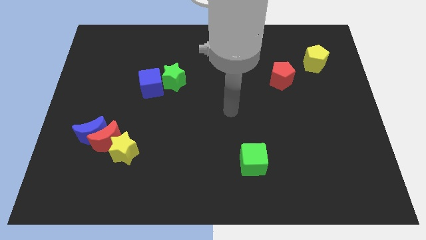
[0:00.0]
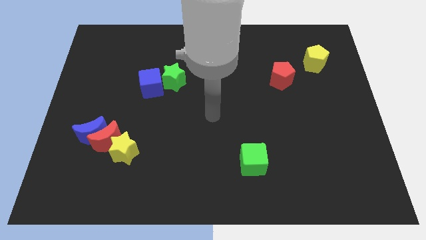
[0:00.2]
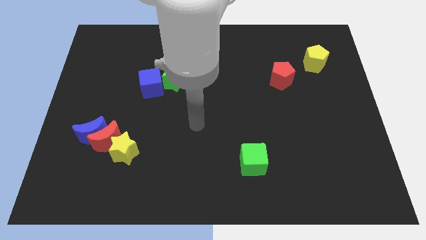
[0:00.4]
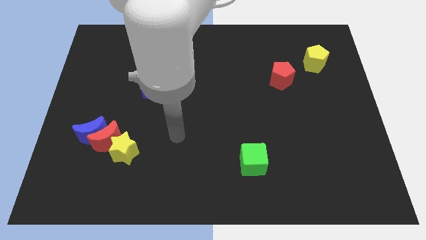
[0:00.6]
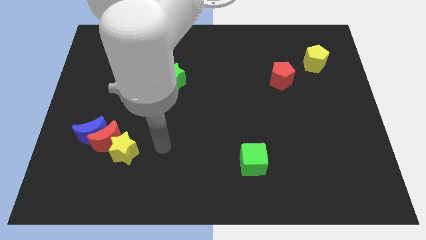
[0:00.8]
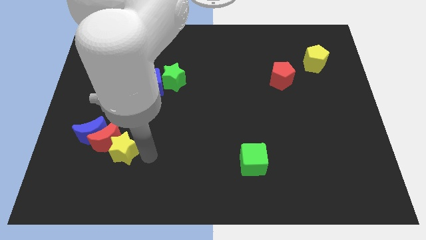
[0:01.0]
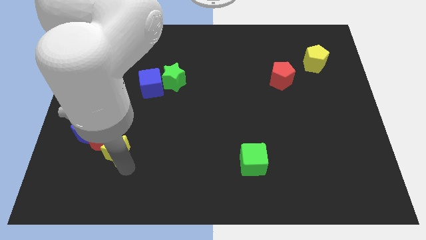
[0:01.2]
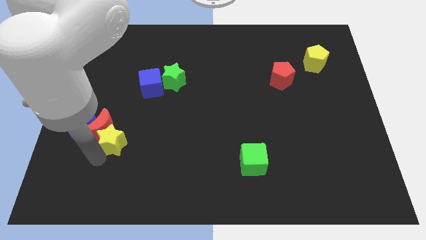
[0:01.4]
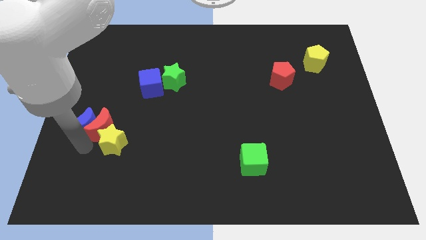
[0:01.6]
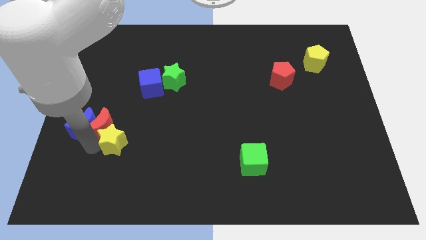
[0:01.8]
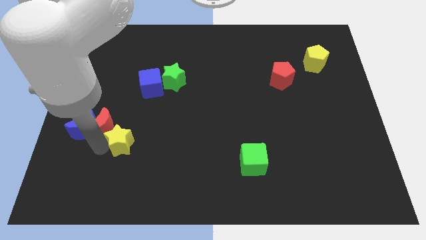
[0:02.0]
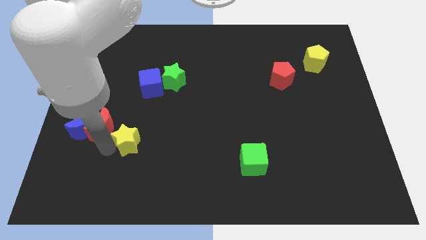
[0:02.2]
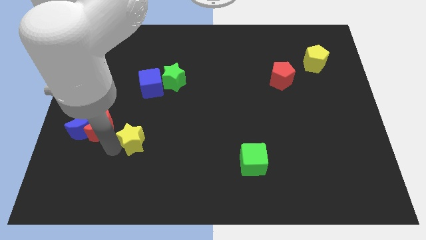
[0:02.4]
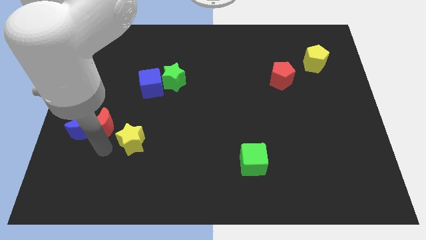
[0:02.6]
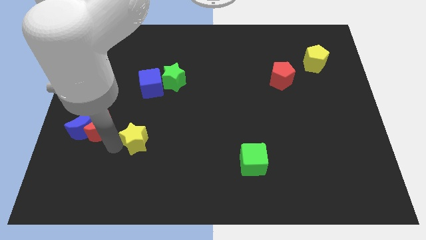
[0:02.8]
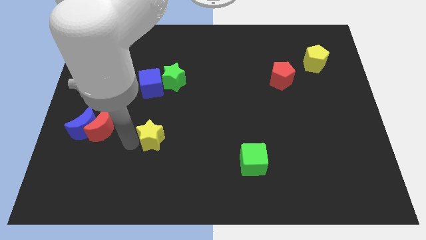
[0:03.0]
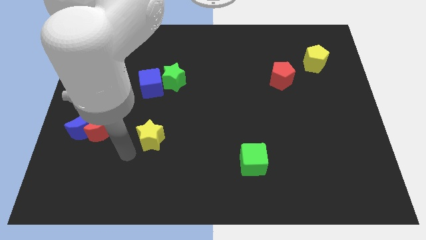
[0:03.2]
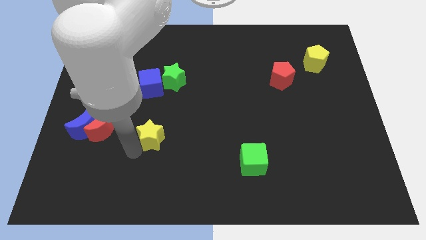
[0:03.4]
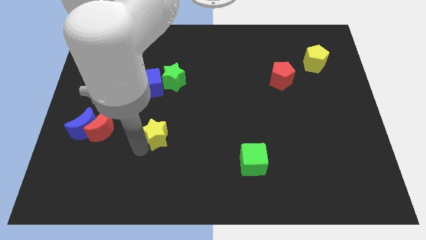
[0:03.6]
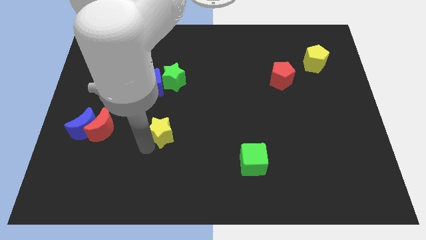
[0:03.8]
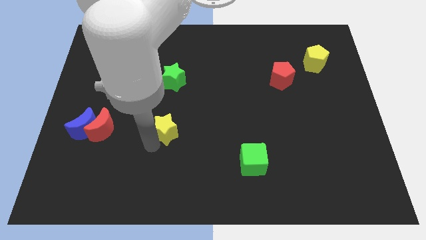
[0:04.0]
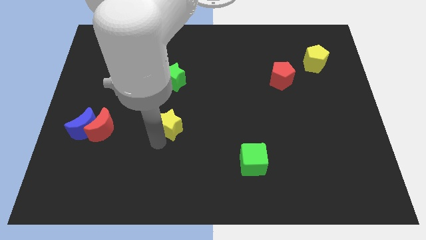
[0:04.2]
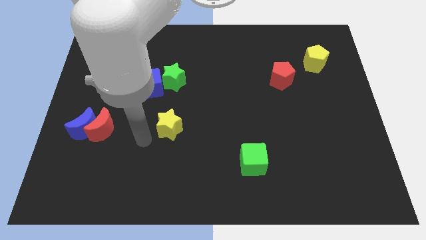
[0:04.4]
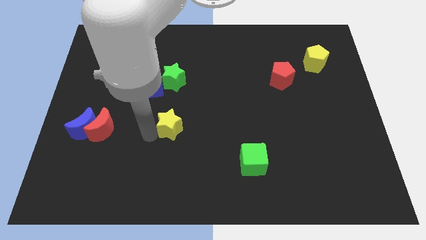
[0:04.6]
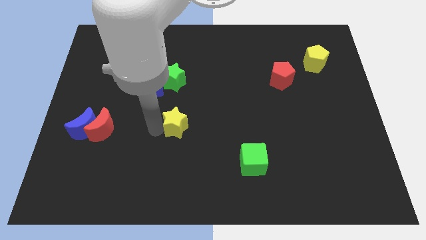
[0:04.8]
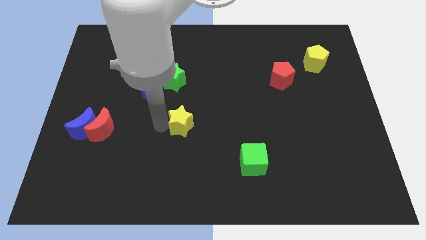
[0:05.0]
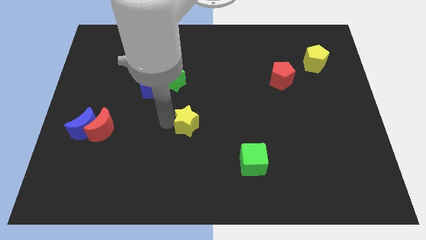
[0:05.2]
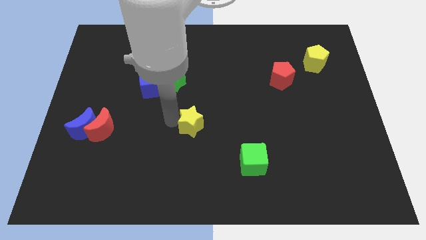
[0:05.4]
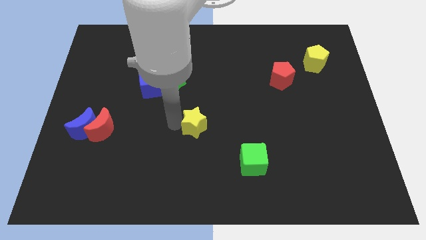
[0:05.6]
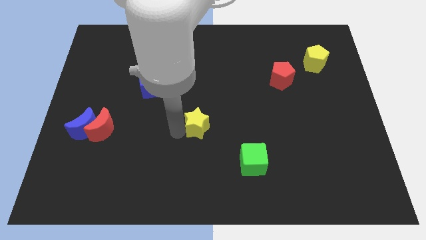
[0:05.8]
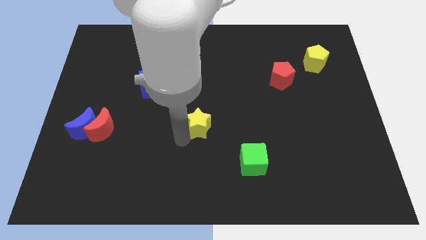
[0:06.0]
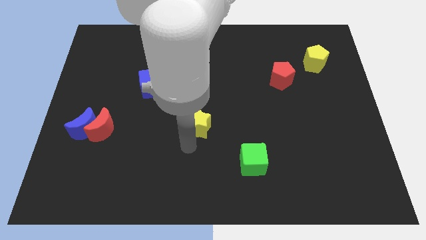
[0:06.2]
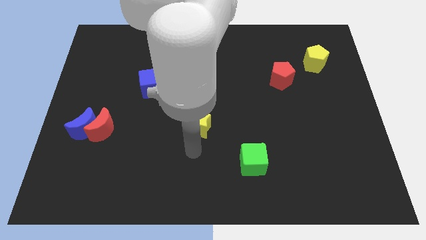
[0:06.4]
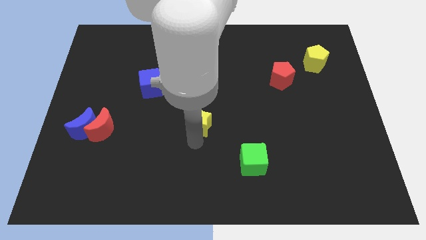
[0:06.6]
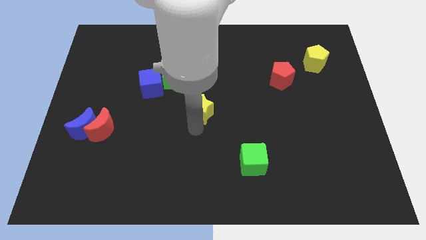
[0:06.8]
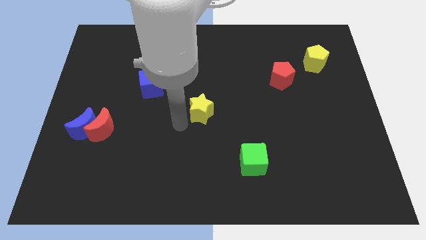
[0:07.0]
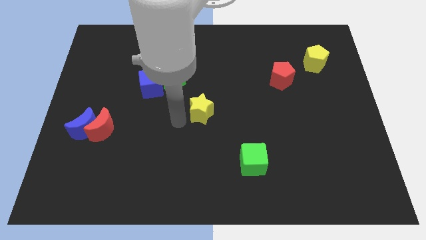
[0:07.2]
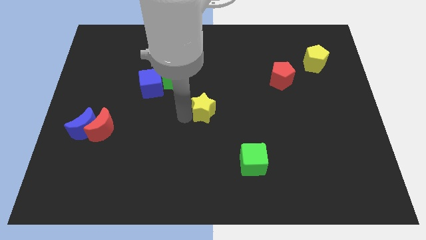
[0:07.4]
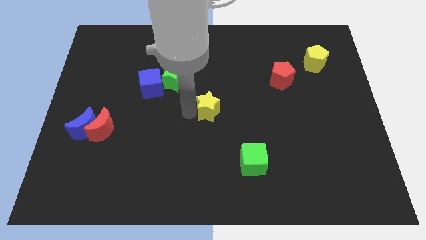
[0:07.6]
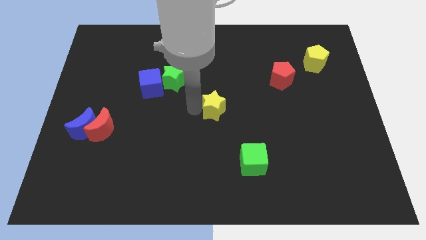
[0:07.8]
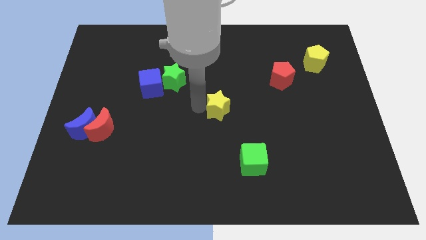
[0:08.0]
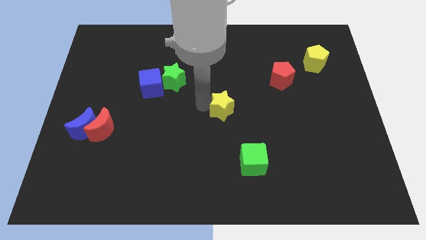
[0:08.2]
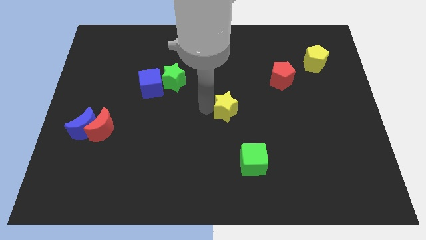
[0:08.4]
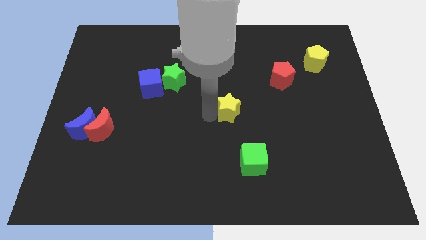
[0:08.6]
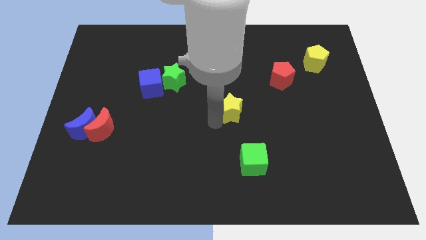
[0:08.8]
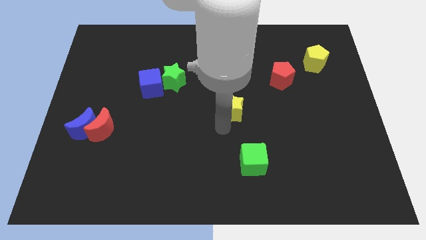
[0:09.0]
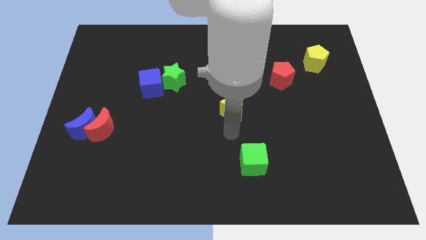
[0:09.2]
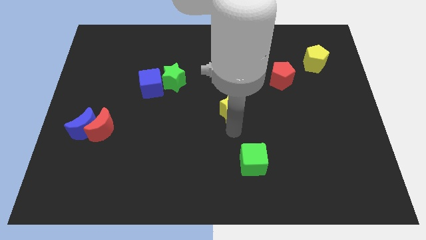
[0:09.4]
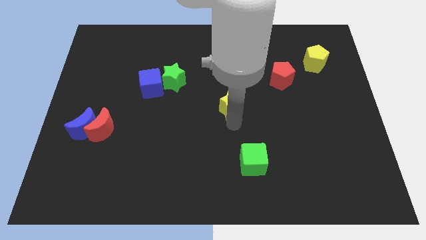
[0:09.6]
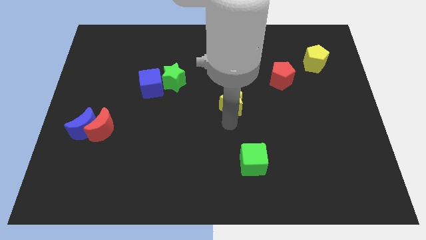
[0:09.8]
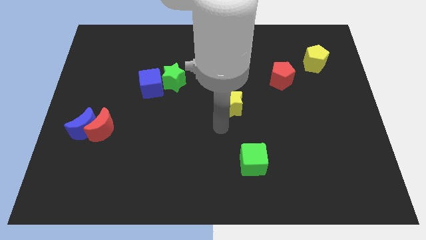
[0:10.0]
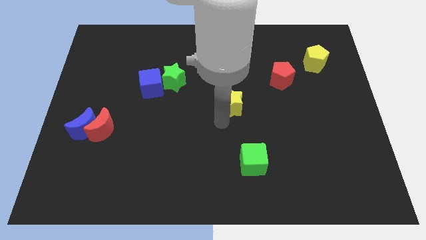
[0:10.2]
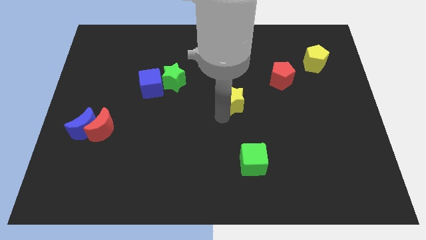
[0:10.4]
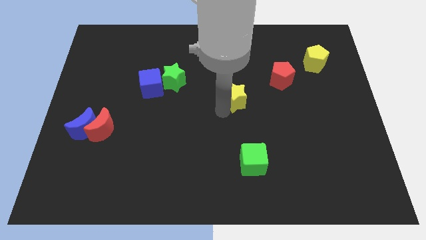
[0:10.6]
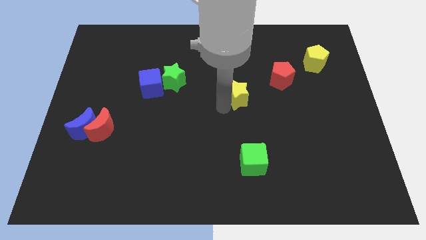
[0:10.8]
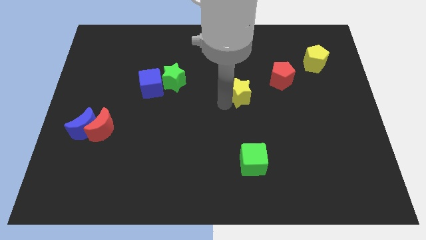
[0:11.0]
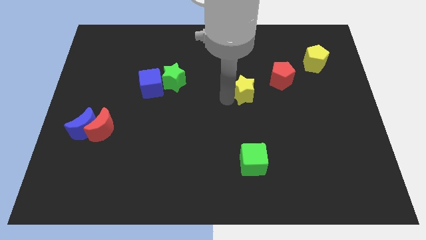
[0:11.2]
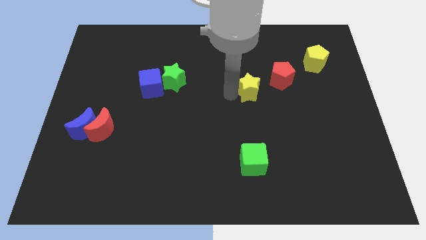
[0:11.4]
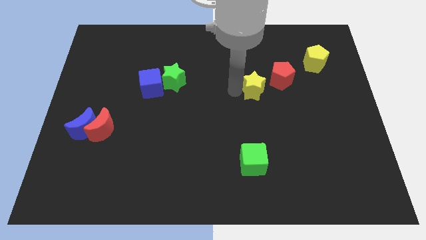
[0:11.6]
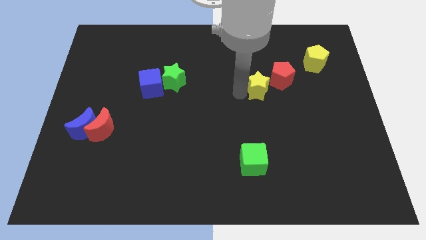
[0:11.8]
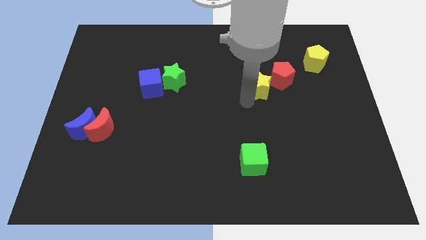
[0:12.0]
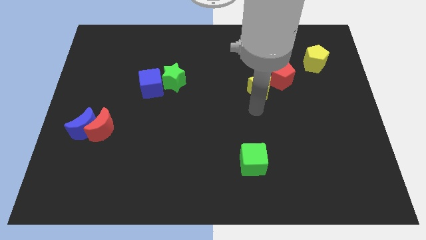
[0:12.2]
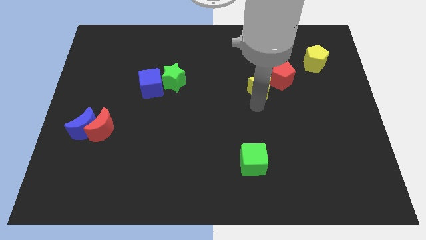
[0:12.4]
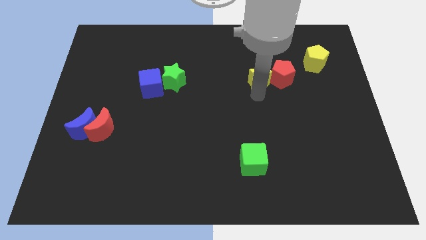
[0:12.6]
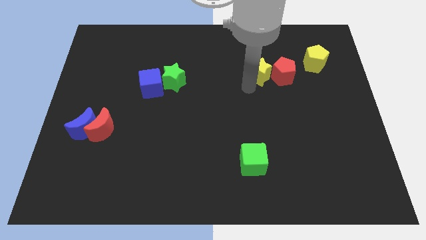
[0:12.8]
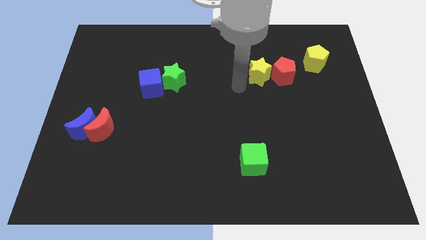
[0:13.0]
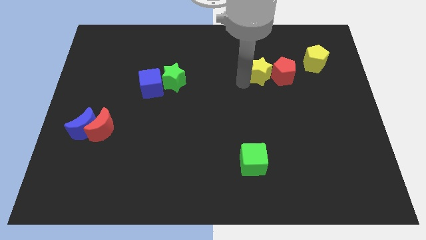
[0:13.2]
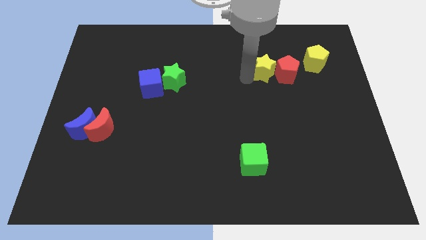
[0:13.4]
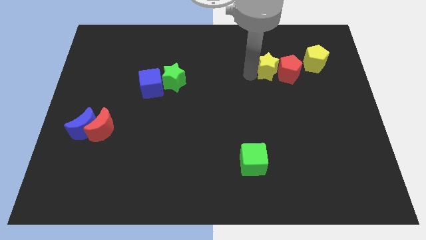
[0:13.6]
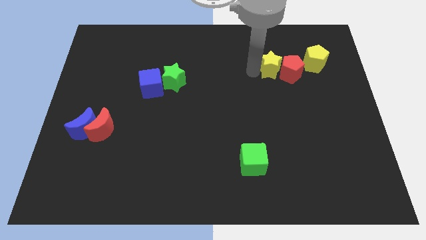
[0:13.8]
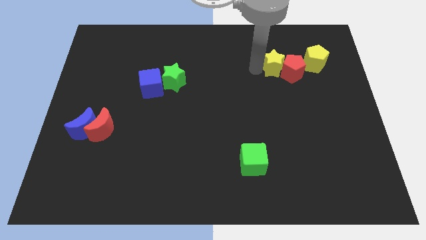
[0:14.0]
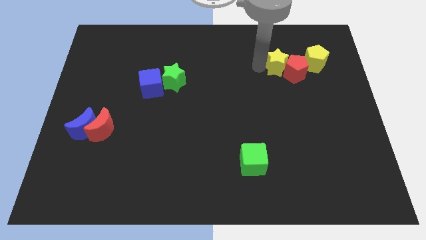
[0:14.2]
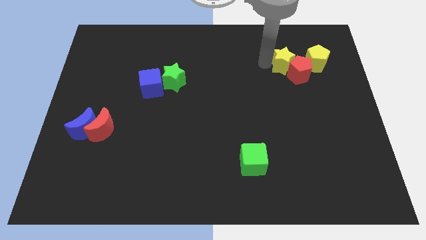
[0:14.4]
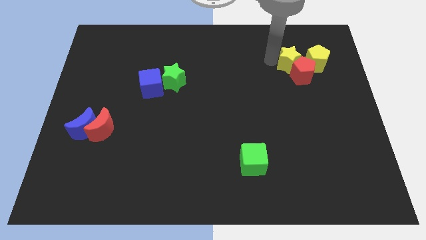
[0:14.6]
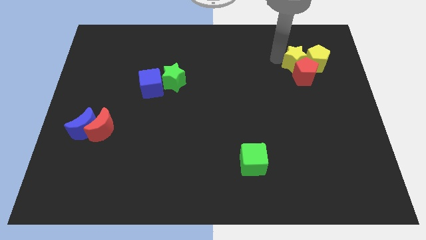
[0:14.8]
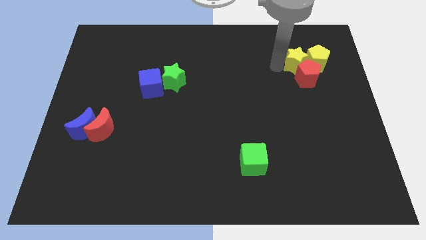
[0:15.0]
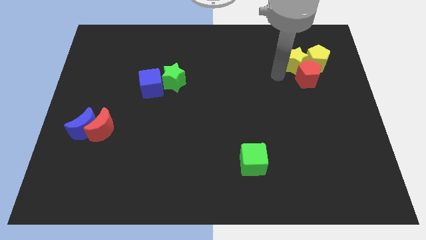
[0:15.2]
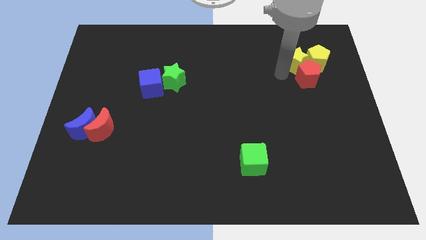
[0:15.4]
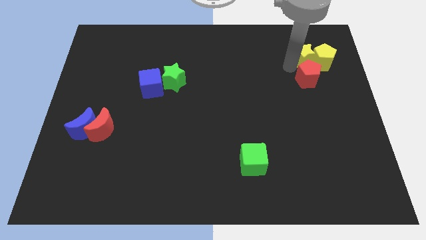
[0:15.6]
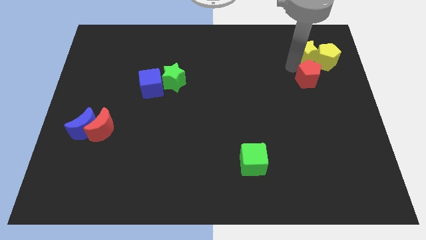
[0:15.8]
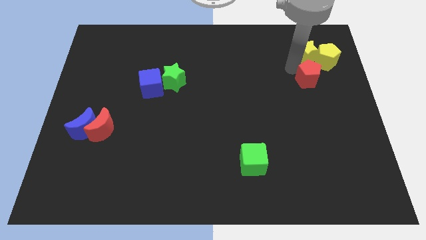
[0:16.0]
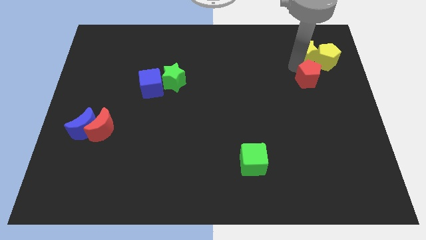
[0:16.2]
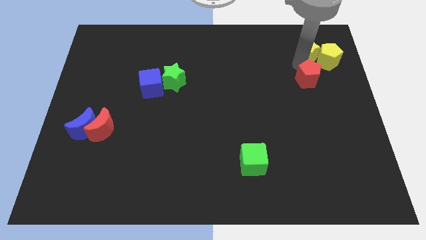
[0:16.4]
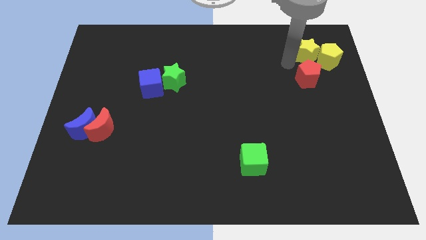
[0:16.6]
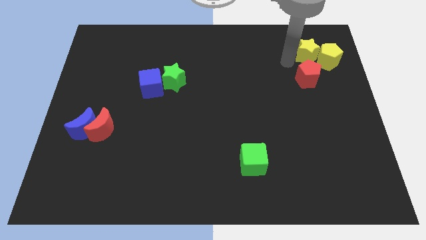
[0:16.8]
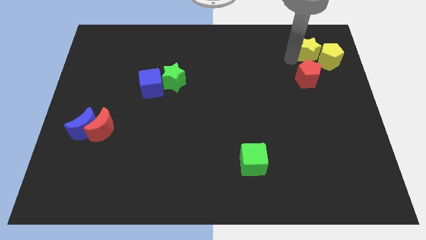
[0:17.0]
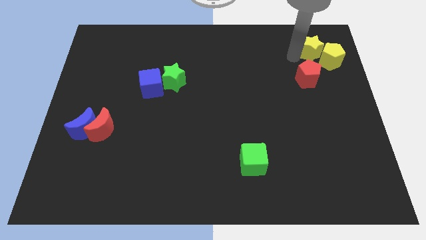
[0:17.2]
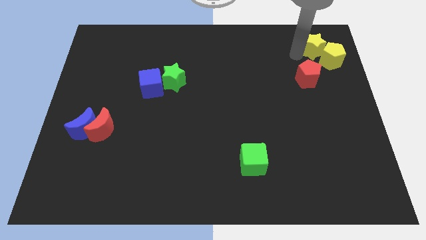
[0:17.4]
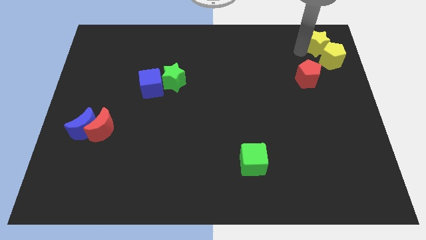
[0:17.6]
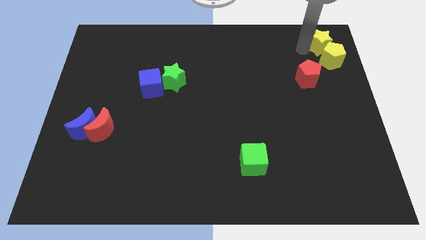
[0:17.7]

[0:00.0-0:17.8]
slide the yellow star to the top right
